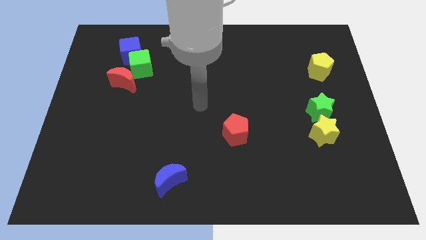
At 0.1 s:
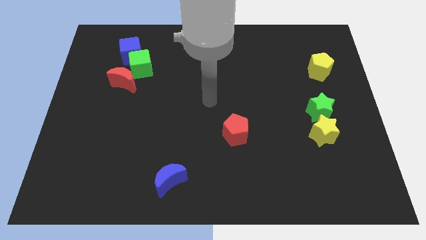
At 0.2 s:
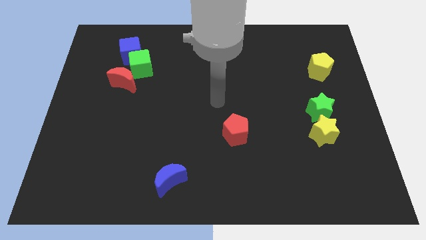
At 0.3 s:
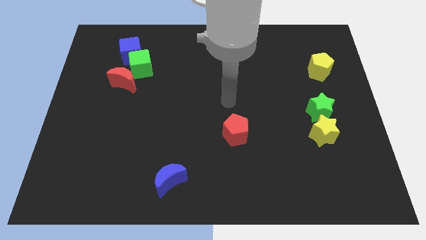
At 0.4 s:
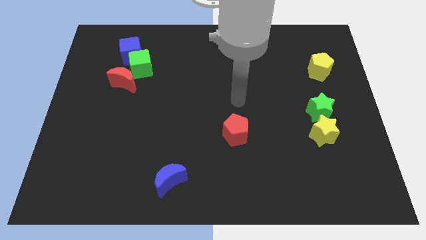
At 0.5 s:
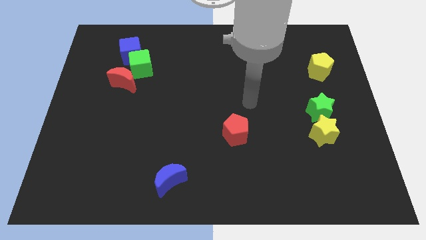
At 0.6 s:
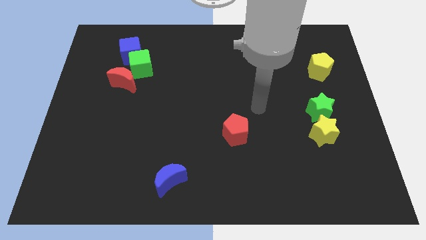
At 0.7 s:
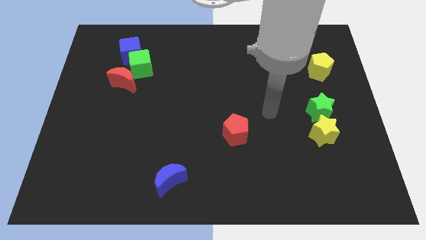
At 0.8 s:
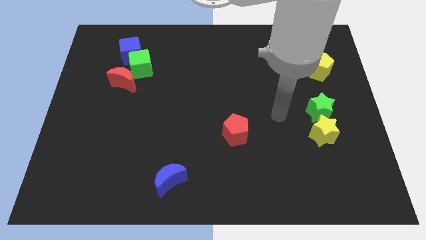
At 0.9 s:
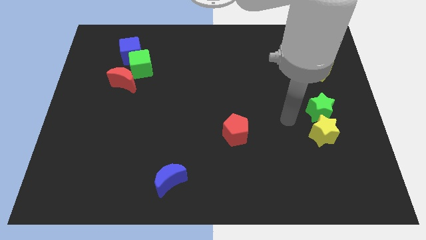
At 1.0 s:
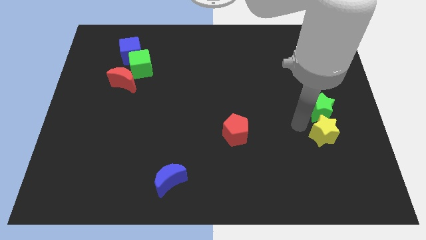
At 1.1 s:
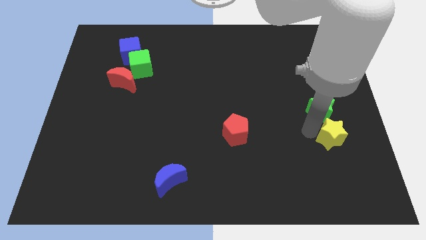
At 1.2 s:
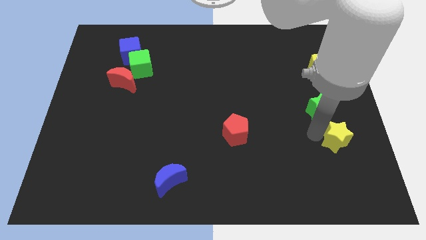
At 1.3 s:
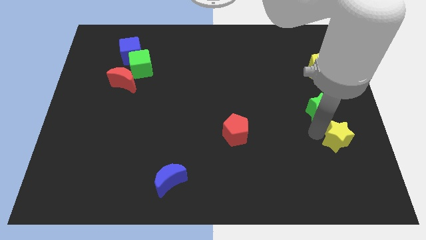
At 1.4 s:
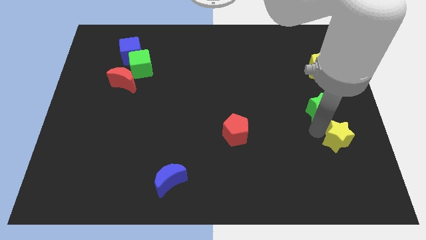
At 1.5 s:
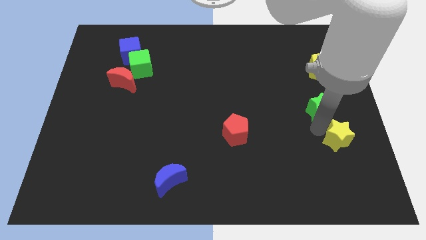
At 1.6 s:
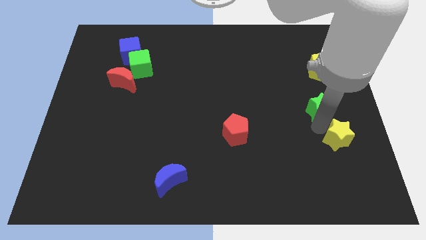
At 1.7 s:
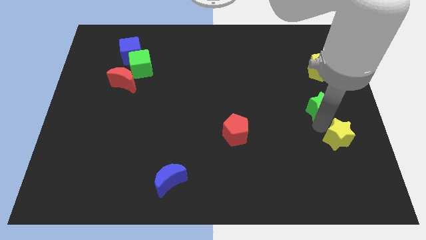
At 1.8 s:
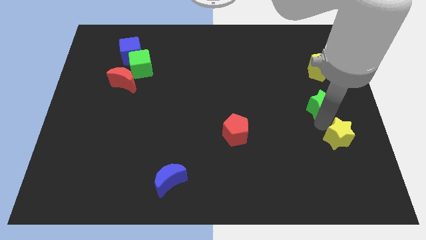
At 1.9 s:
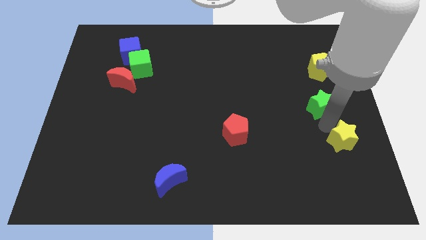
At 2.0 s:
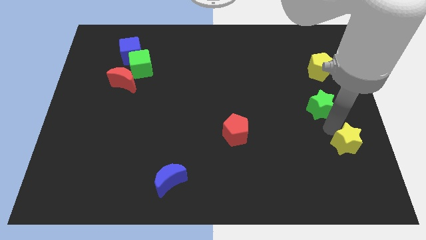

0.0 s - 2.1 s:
move the green star away from the yellow star

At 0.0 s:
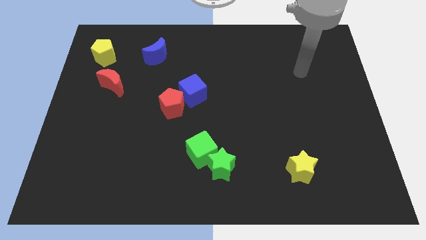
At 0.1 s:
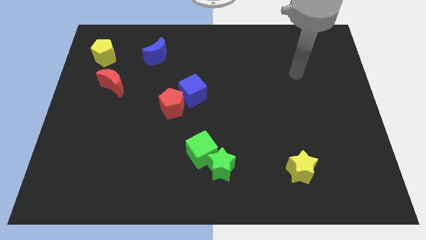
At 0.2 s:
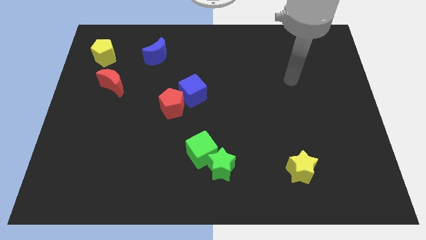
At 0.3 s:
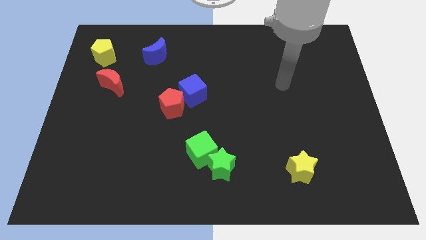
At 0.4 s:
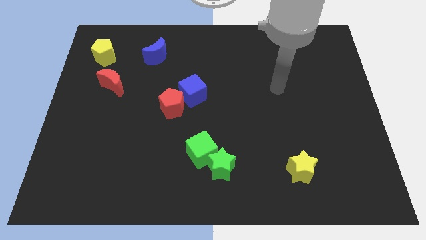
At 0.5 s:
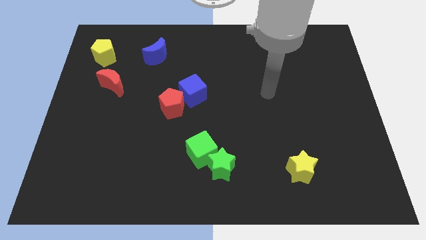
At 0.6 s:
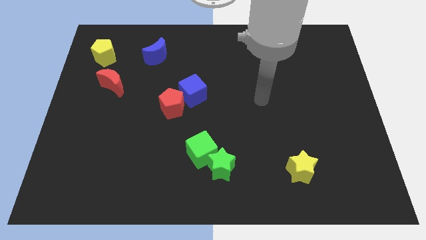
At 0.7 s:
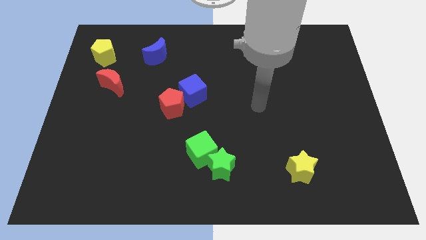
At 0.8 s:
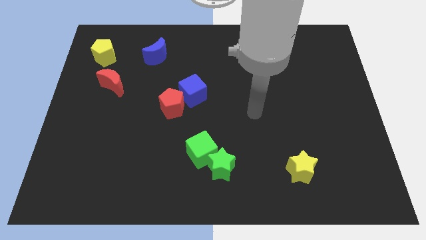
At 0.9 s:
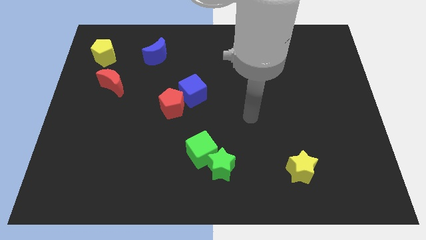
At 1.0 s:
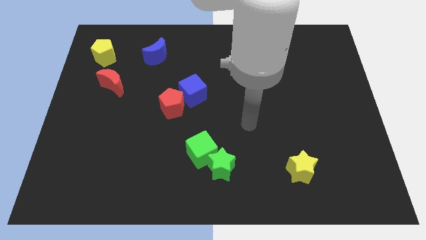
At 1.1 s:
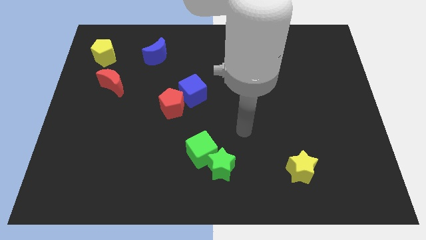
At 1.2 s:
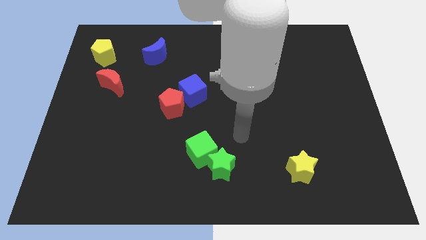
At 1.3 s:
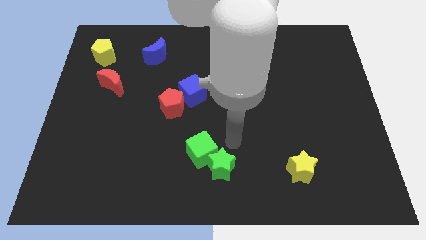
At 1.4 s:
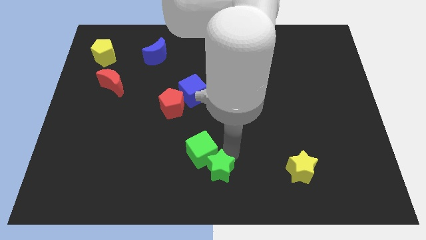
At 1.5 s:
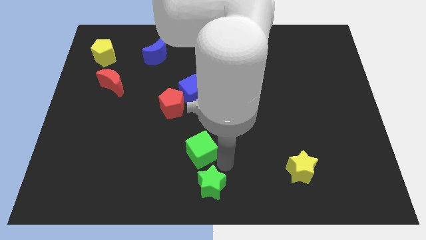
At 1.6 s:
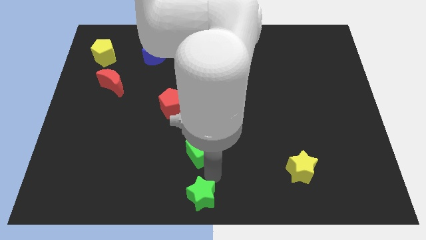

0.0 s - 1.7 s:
pull the green cube apart from the green star

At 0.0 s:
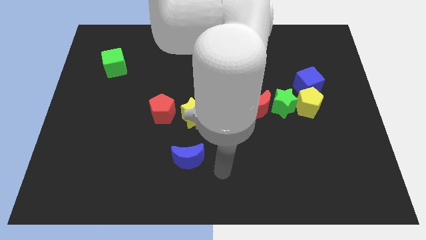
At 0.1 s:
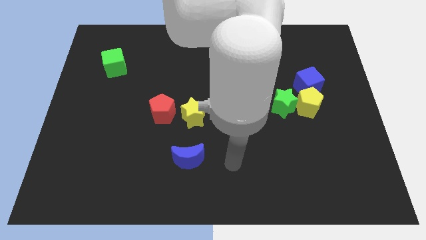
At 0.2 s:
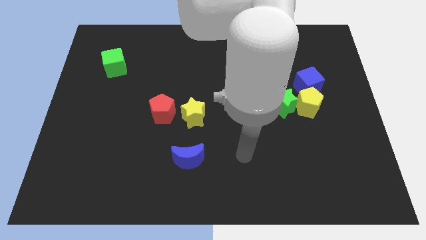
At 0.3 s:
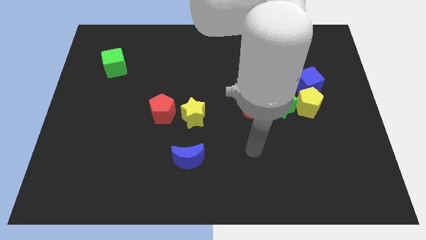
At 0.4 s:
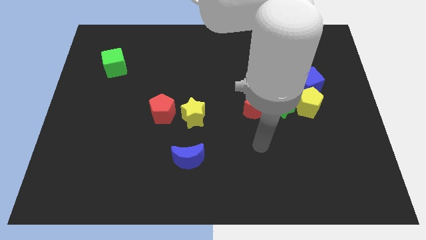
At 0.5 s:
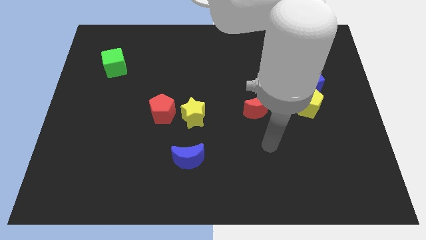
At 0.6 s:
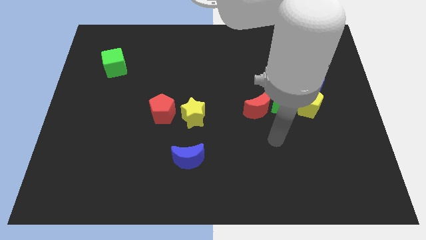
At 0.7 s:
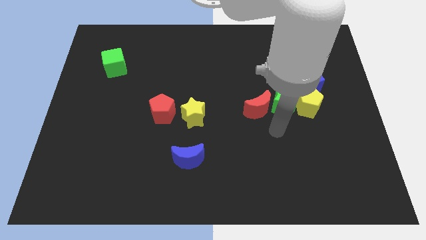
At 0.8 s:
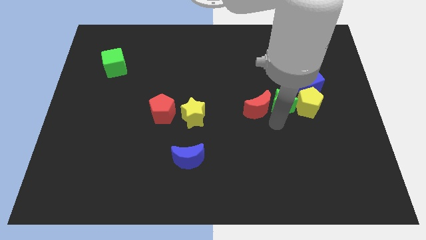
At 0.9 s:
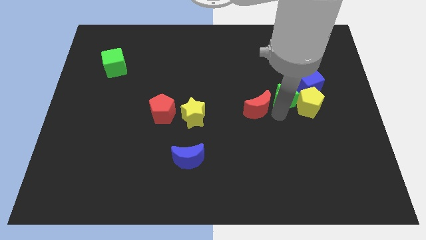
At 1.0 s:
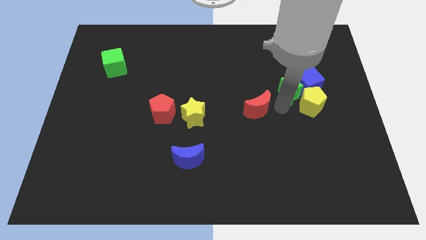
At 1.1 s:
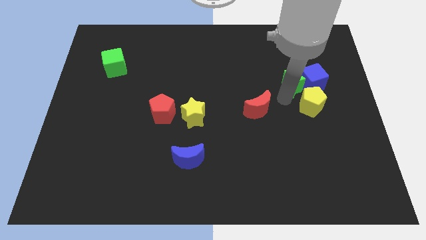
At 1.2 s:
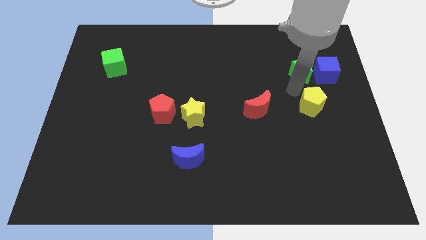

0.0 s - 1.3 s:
move the yellow pentagon away from the green star and blue cube

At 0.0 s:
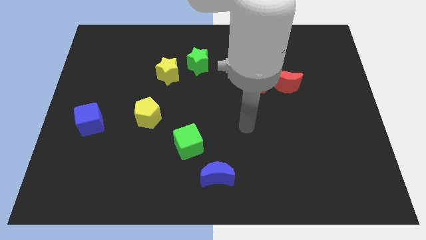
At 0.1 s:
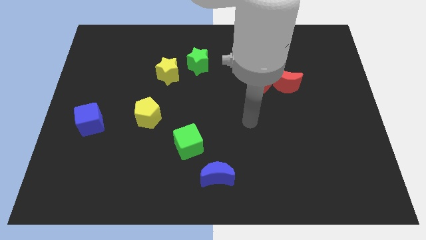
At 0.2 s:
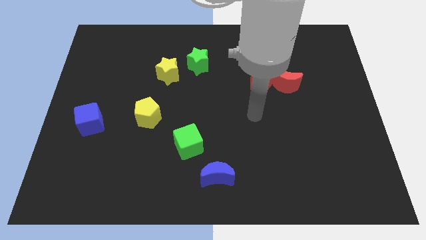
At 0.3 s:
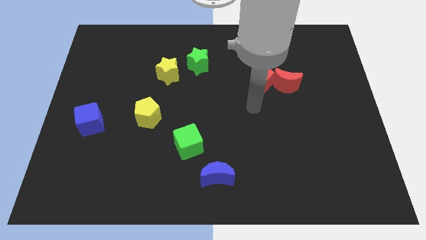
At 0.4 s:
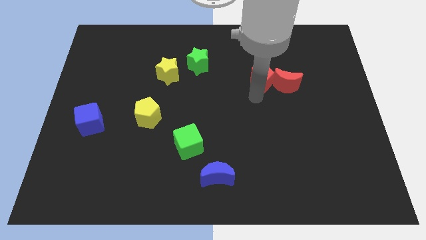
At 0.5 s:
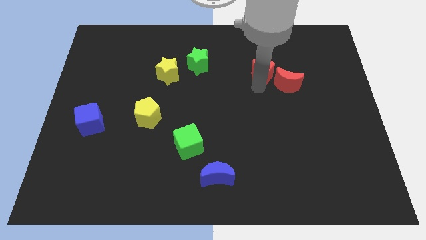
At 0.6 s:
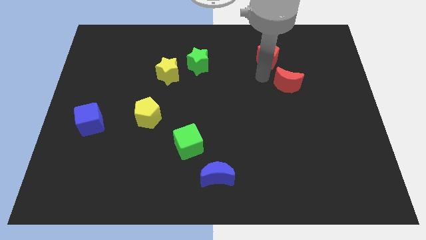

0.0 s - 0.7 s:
move the red moon away from the red pentagon

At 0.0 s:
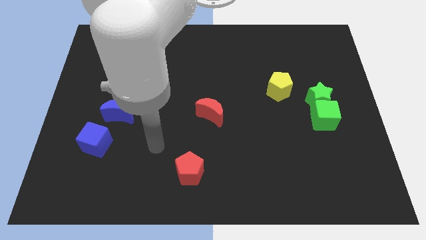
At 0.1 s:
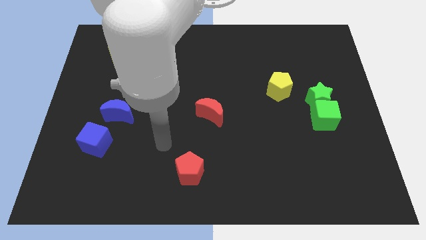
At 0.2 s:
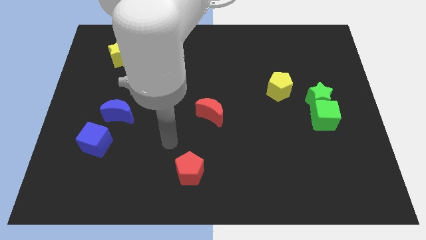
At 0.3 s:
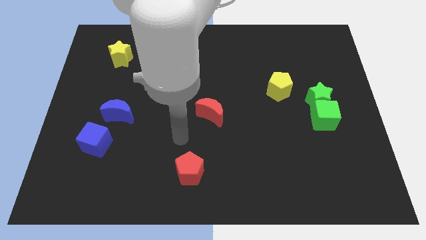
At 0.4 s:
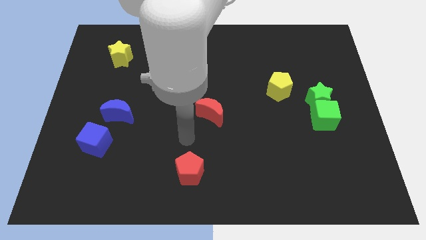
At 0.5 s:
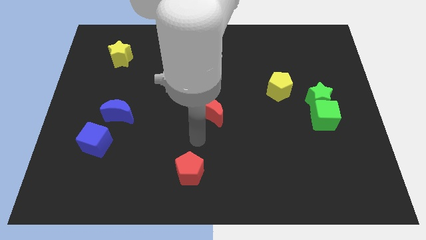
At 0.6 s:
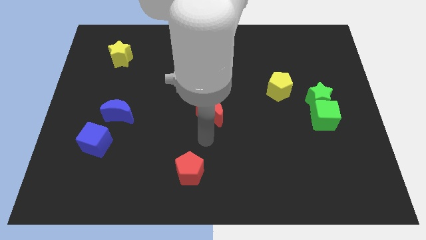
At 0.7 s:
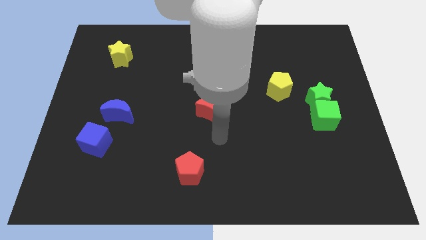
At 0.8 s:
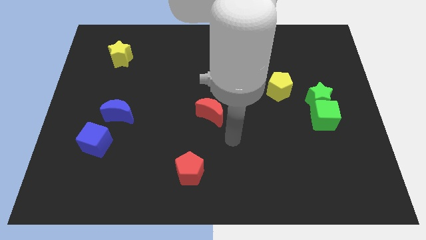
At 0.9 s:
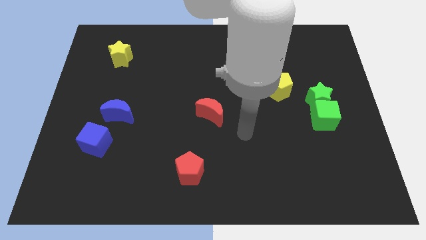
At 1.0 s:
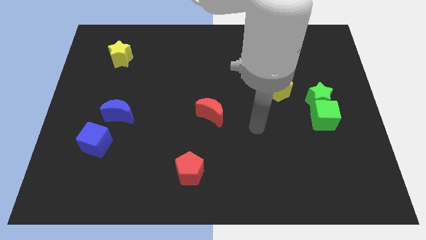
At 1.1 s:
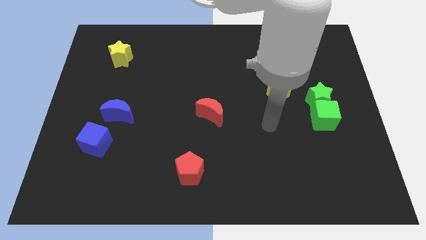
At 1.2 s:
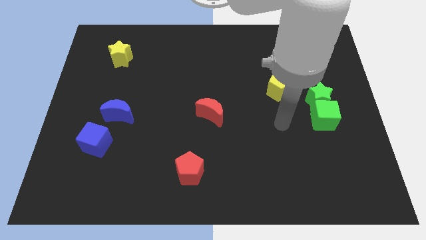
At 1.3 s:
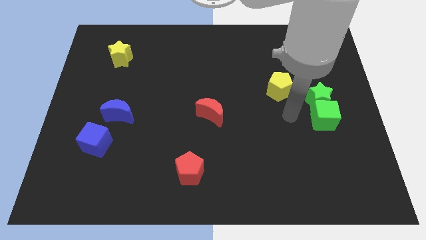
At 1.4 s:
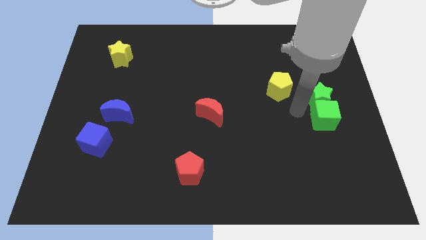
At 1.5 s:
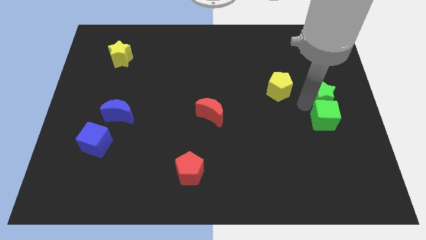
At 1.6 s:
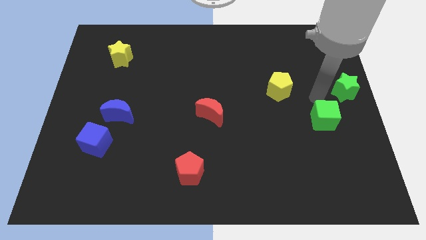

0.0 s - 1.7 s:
move the green cube away from the green star

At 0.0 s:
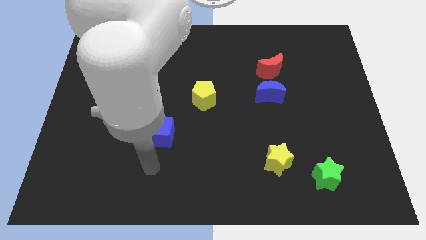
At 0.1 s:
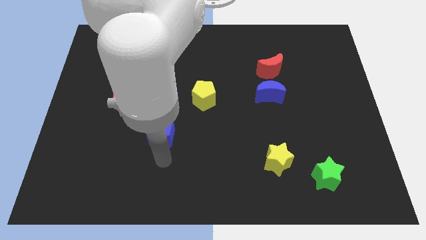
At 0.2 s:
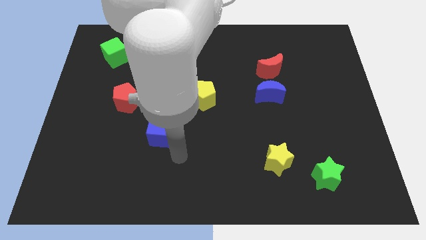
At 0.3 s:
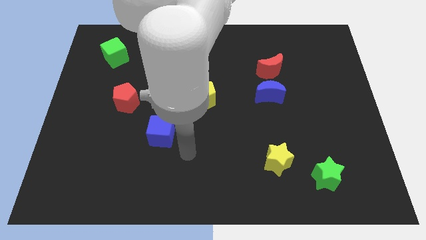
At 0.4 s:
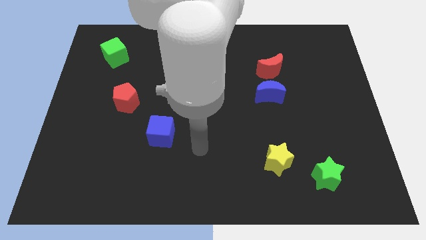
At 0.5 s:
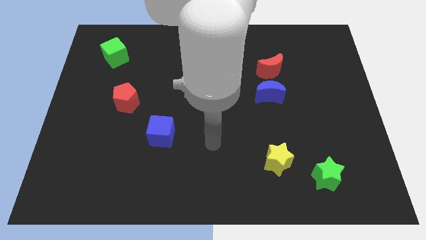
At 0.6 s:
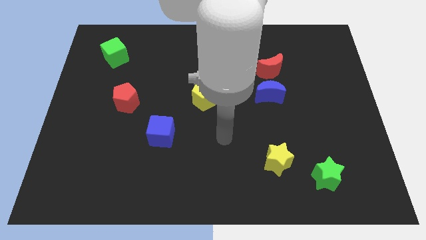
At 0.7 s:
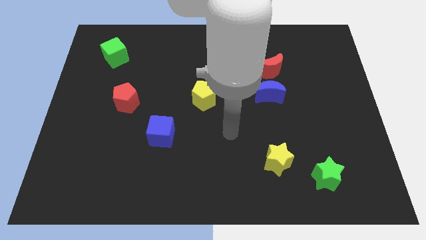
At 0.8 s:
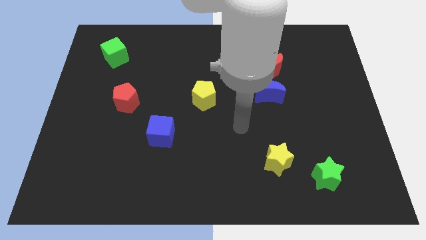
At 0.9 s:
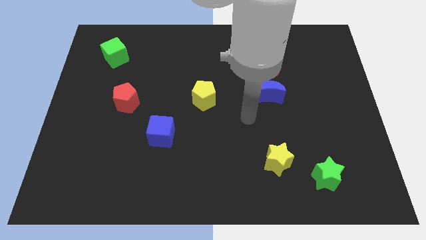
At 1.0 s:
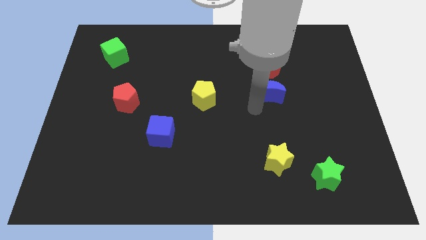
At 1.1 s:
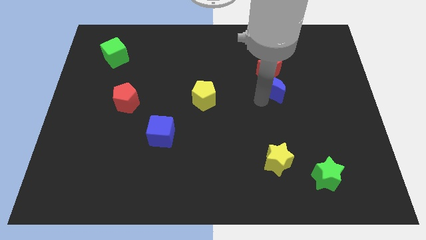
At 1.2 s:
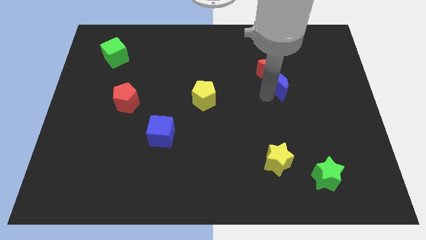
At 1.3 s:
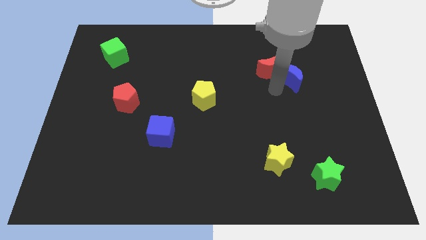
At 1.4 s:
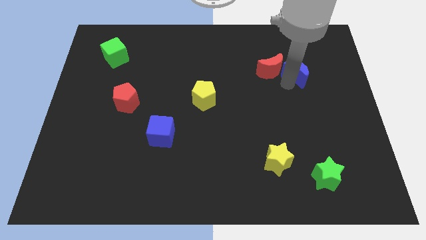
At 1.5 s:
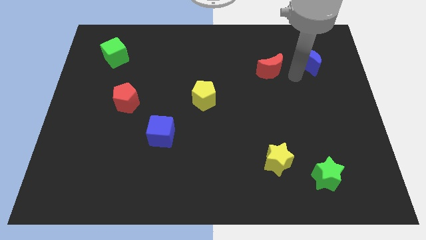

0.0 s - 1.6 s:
pull the red moon apart from the blue moon

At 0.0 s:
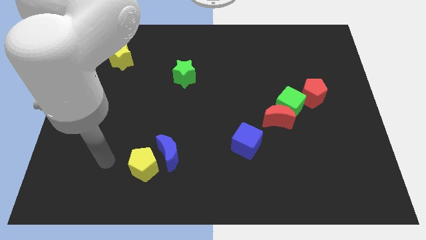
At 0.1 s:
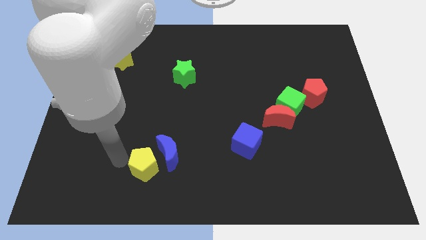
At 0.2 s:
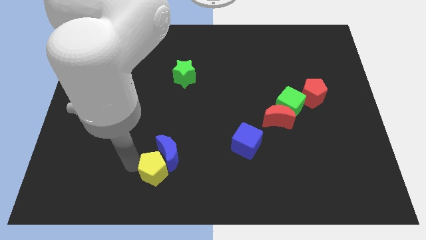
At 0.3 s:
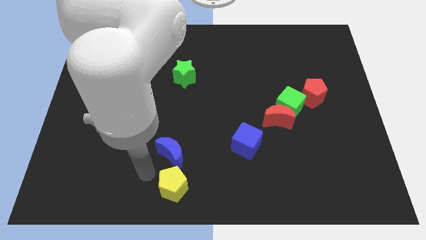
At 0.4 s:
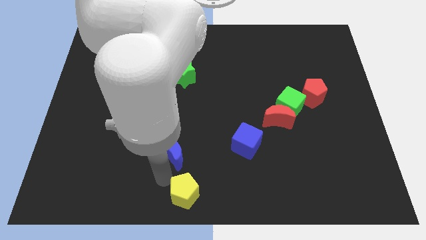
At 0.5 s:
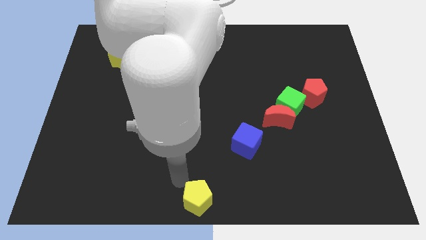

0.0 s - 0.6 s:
pull the blue moon apart from the yellow pentagon
